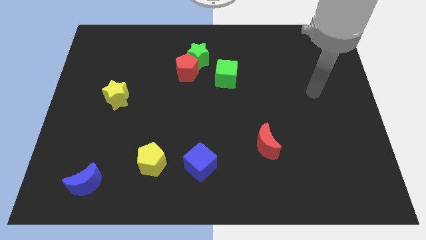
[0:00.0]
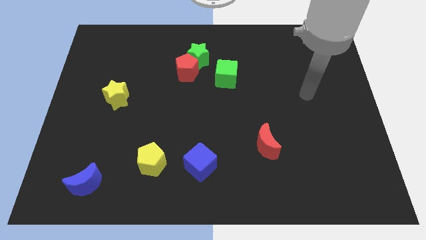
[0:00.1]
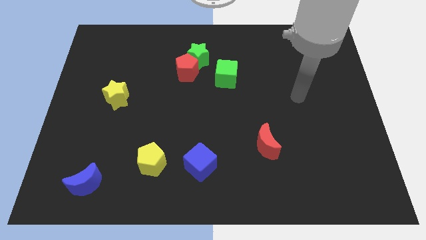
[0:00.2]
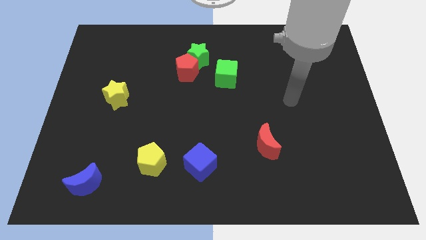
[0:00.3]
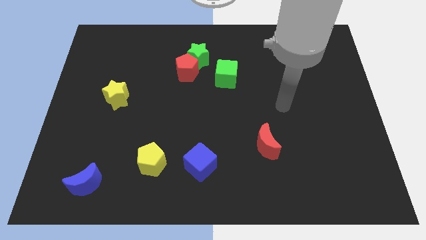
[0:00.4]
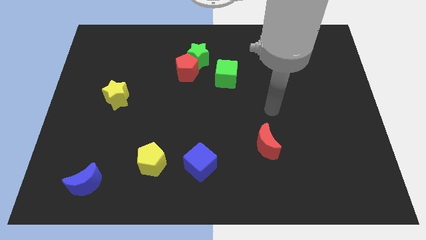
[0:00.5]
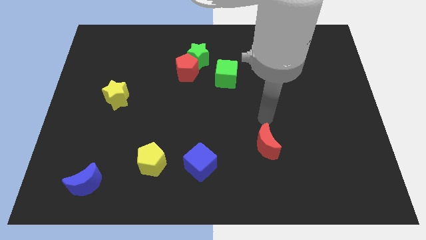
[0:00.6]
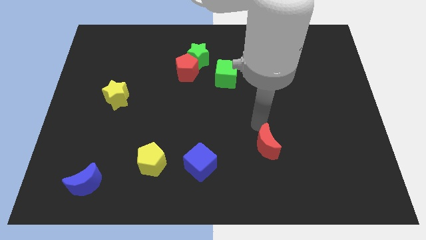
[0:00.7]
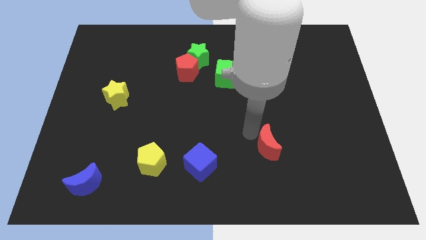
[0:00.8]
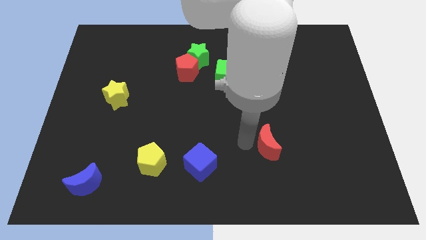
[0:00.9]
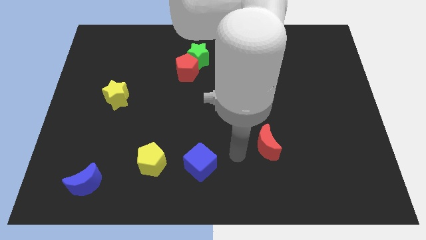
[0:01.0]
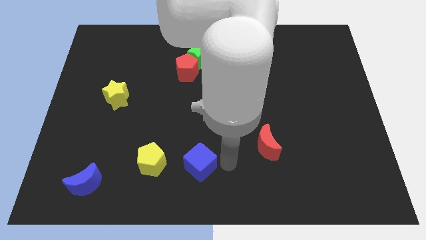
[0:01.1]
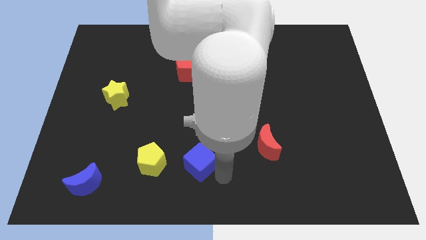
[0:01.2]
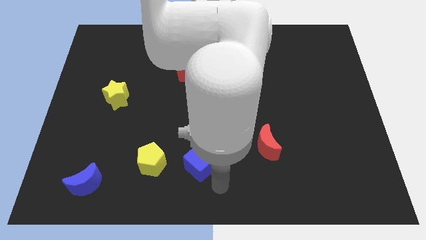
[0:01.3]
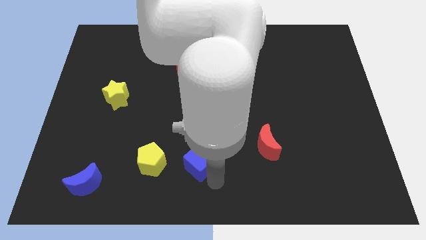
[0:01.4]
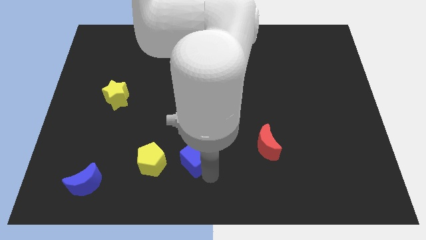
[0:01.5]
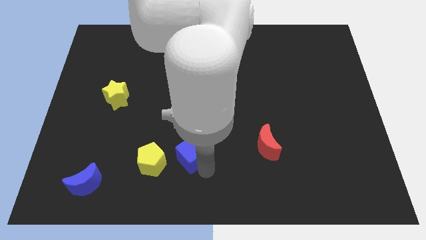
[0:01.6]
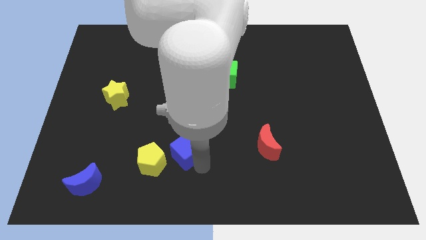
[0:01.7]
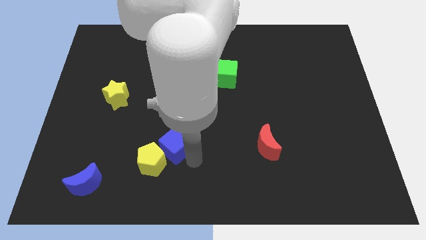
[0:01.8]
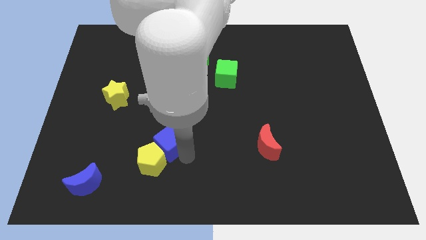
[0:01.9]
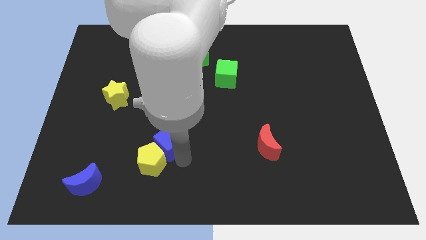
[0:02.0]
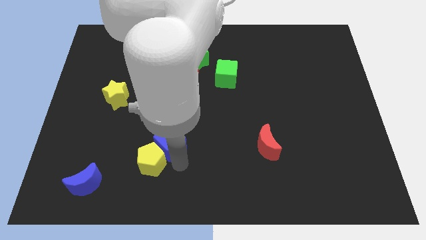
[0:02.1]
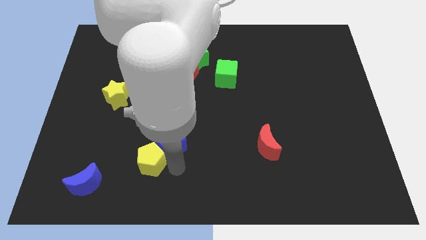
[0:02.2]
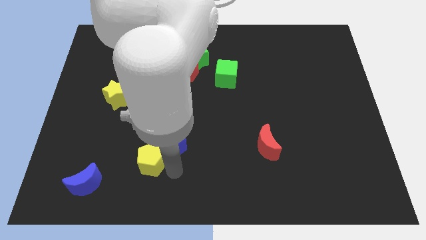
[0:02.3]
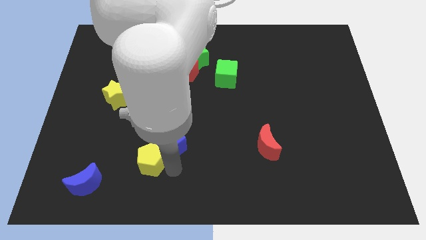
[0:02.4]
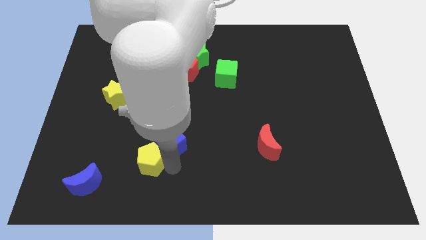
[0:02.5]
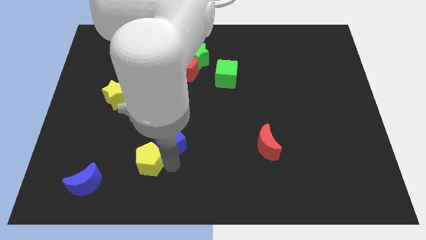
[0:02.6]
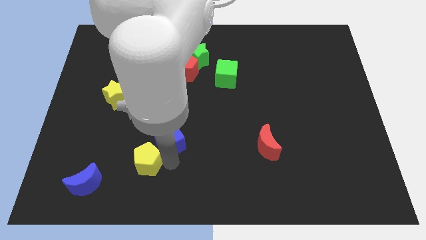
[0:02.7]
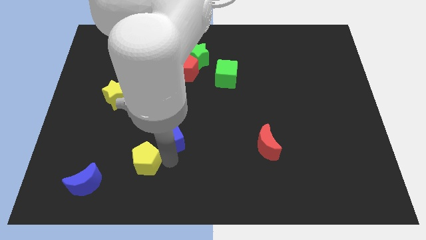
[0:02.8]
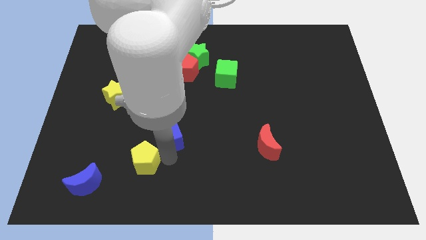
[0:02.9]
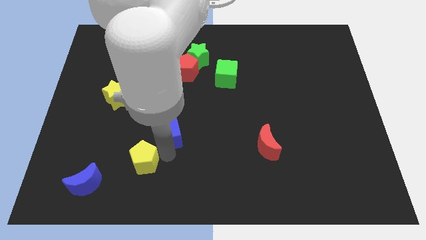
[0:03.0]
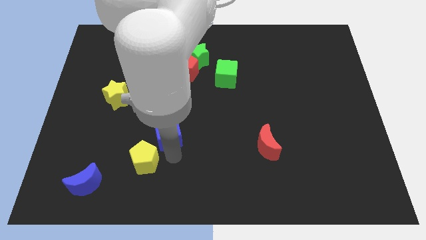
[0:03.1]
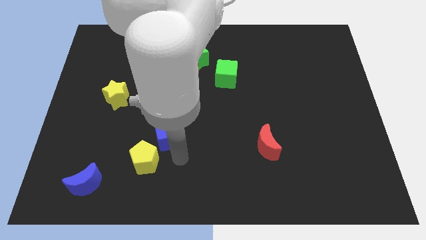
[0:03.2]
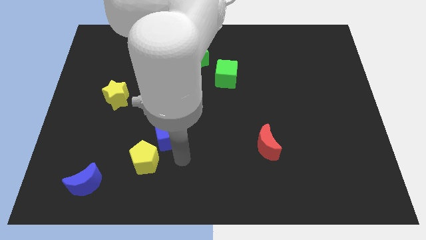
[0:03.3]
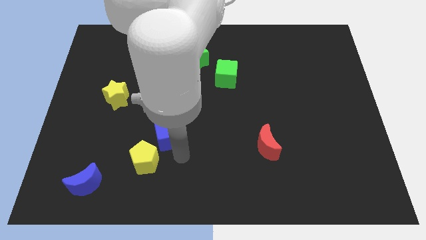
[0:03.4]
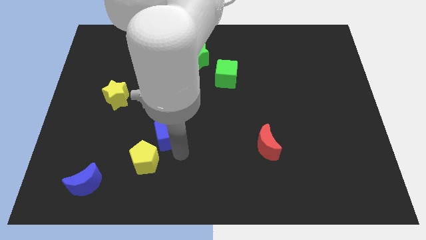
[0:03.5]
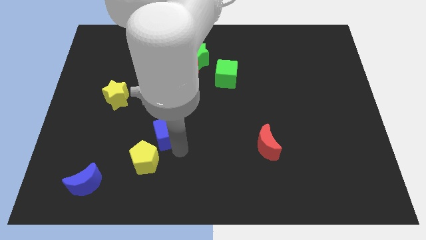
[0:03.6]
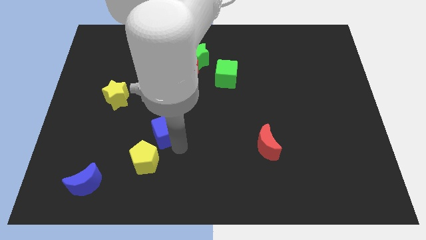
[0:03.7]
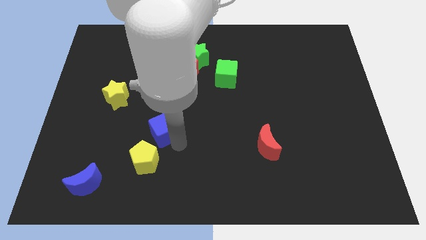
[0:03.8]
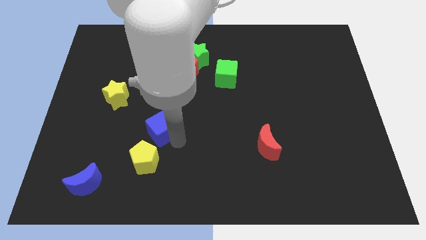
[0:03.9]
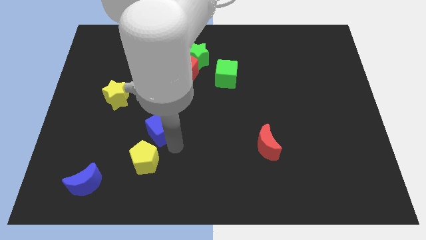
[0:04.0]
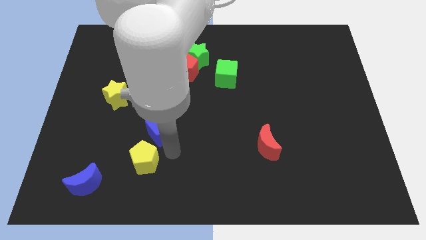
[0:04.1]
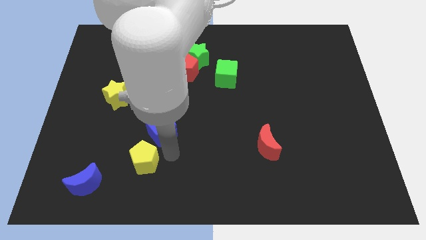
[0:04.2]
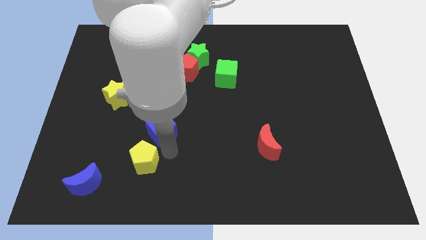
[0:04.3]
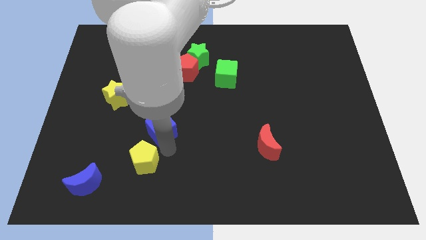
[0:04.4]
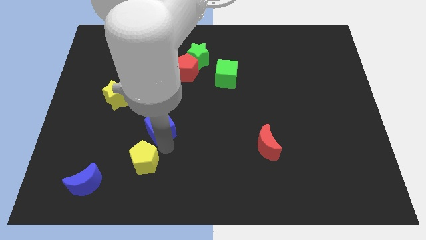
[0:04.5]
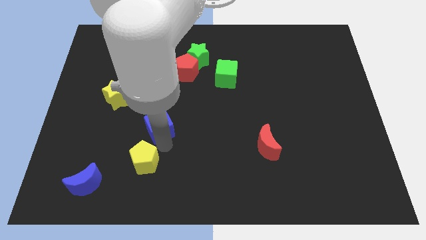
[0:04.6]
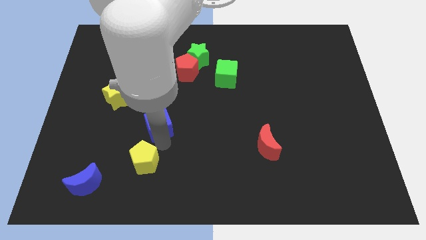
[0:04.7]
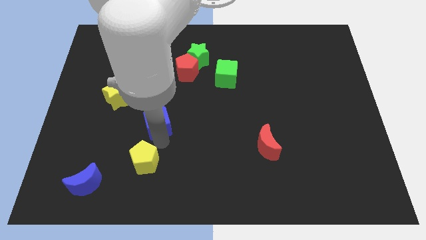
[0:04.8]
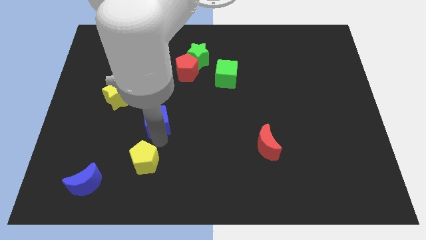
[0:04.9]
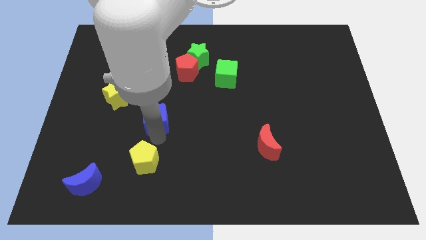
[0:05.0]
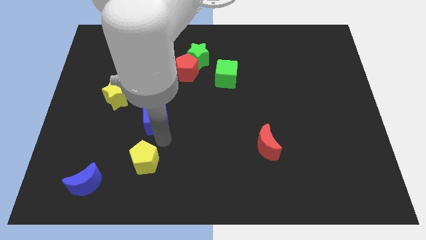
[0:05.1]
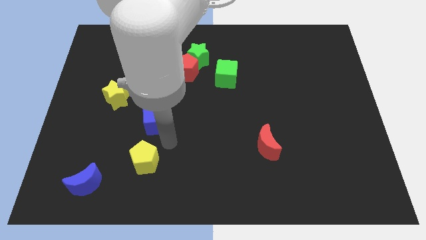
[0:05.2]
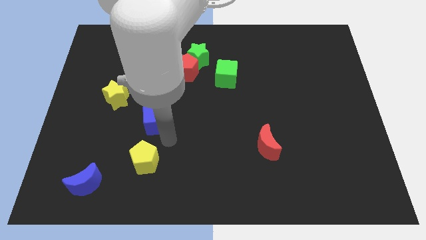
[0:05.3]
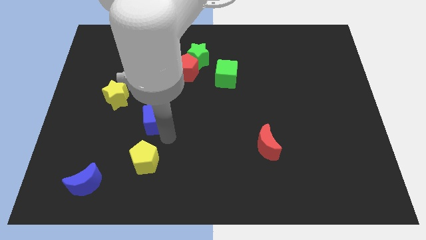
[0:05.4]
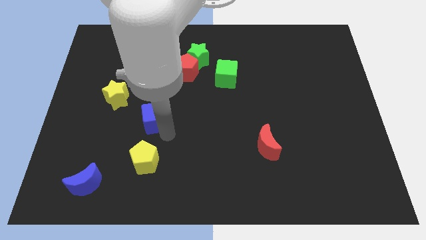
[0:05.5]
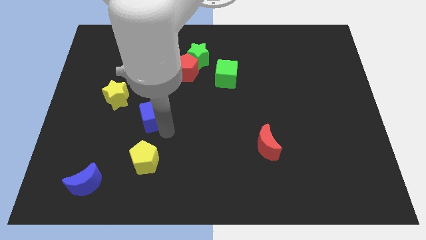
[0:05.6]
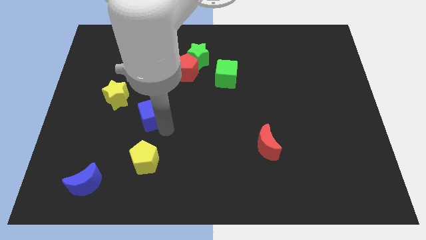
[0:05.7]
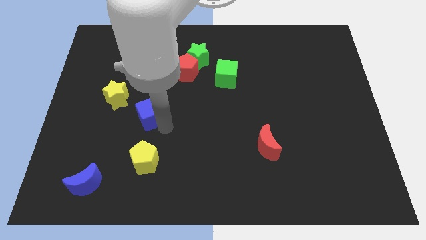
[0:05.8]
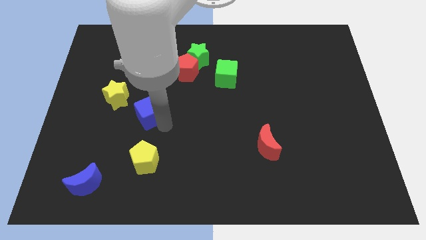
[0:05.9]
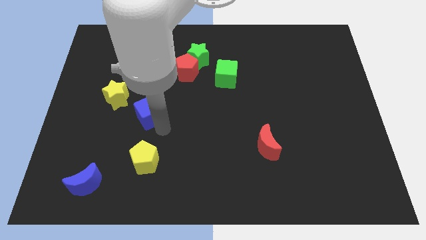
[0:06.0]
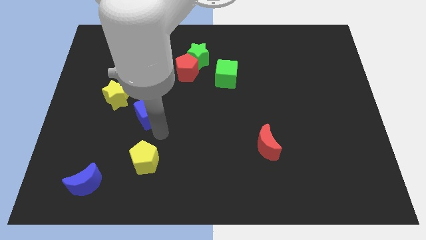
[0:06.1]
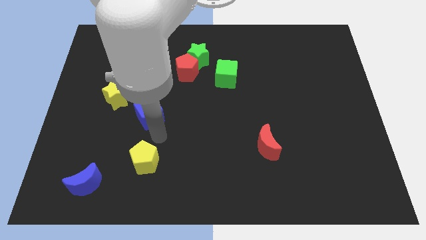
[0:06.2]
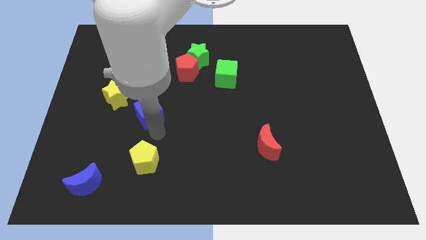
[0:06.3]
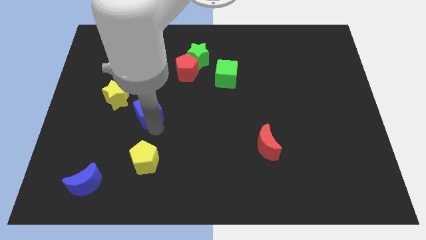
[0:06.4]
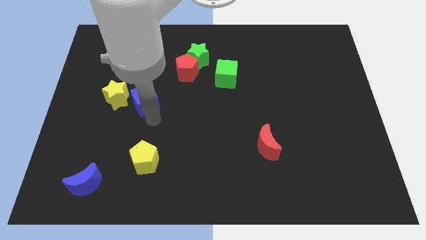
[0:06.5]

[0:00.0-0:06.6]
move the blue cube upwards and then left

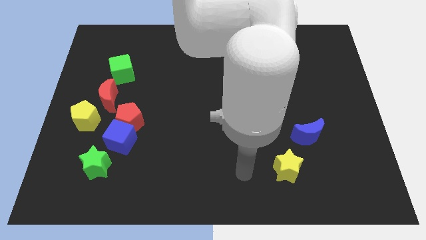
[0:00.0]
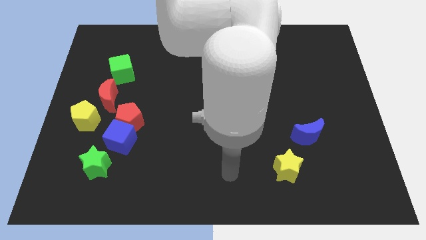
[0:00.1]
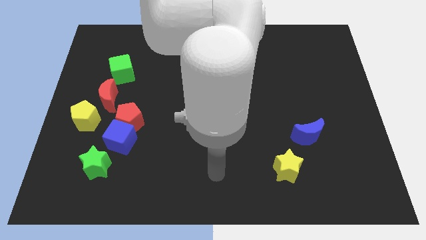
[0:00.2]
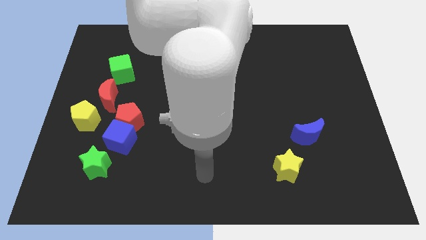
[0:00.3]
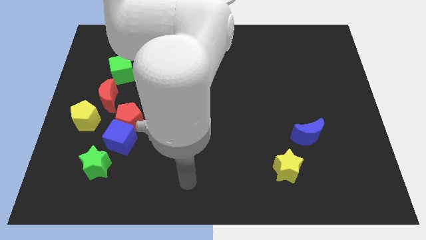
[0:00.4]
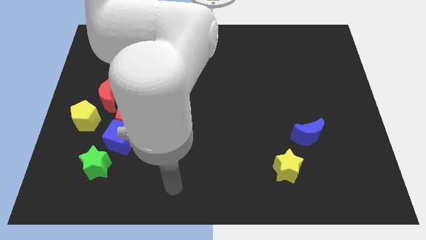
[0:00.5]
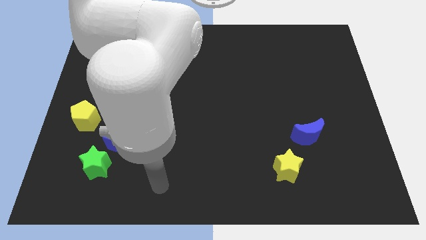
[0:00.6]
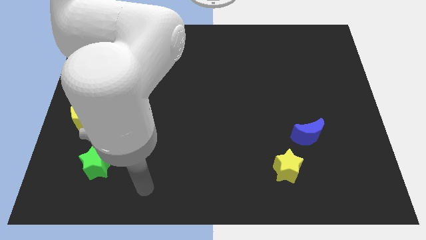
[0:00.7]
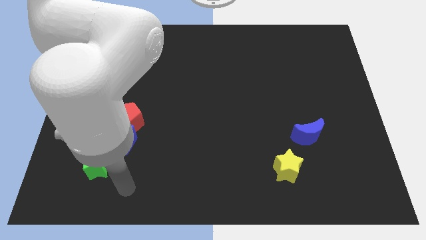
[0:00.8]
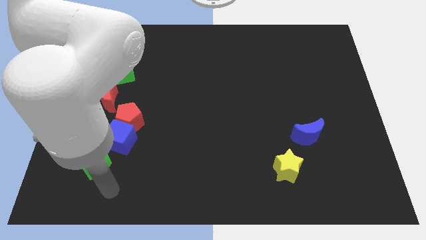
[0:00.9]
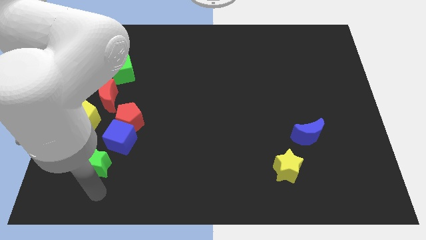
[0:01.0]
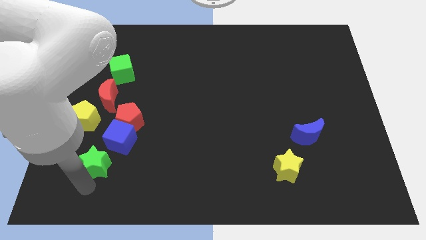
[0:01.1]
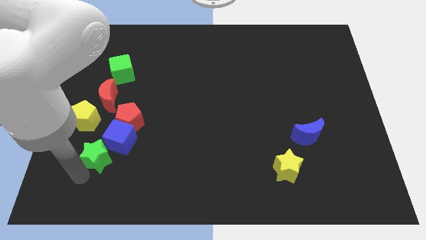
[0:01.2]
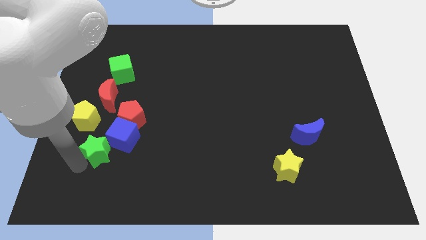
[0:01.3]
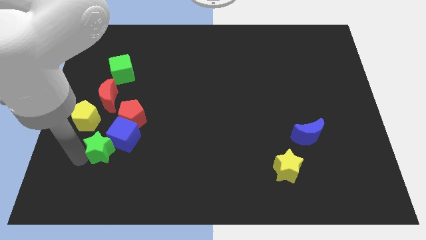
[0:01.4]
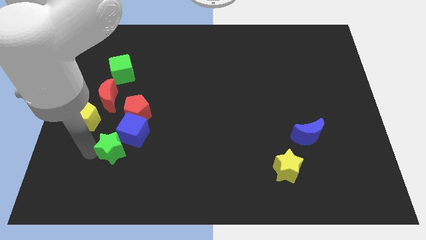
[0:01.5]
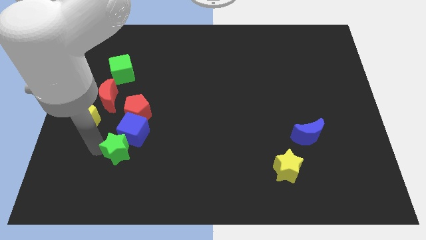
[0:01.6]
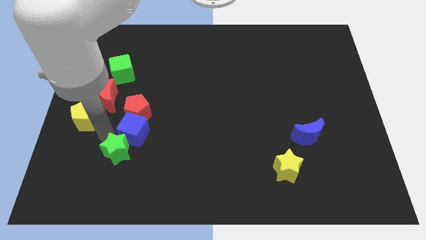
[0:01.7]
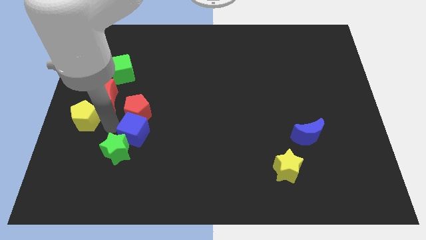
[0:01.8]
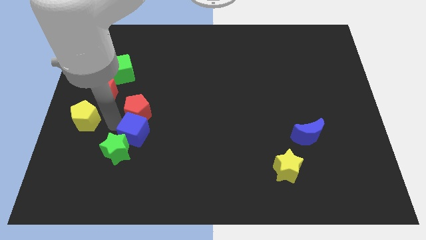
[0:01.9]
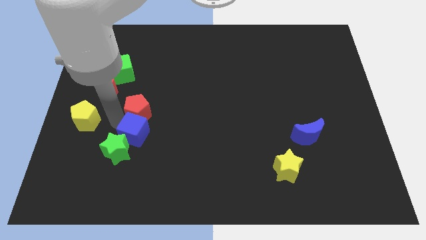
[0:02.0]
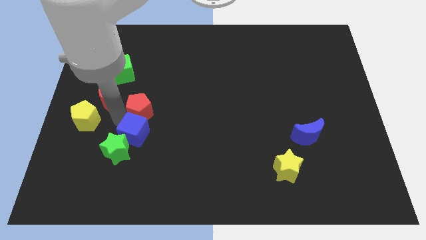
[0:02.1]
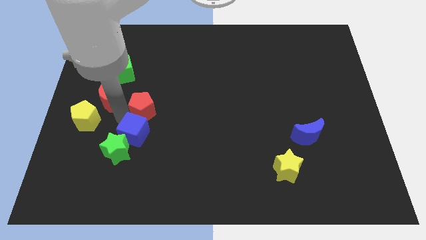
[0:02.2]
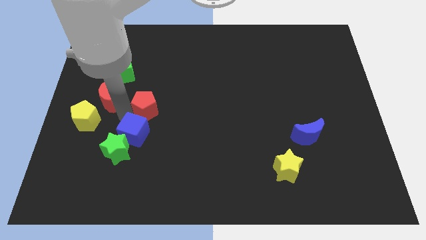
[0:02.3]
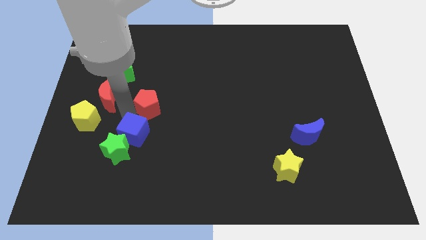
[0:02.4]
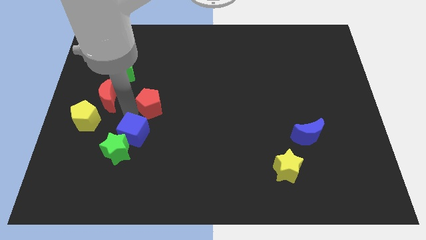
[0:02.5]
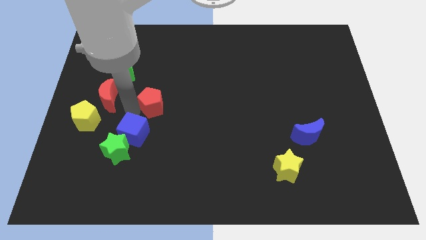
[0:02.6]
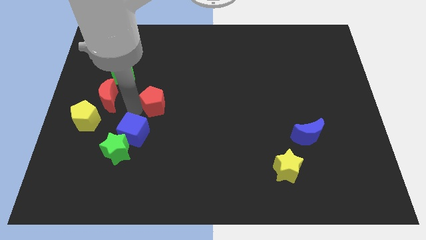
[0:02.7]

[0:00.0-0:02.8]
slightly move the red pentagon diagonally upwards and right
